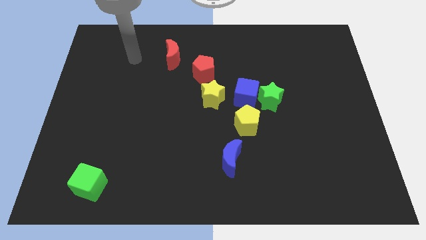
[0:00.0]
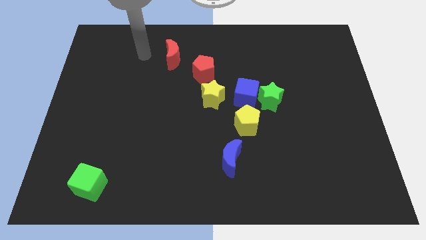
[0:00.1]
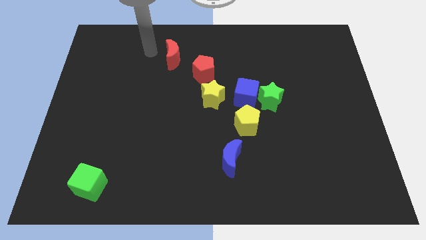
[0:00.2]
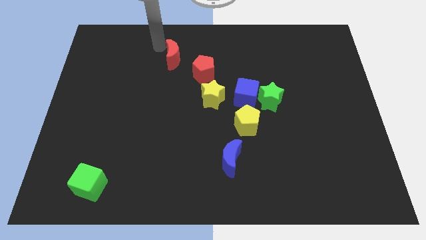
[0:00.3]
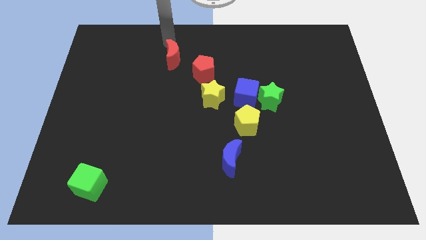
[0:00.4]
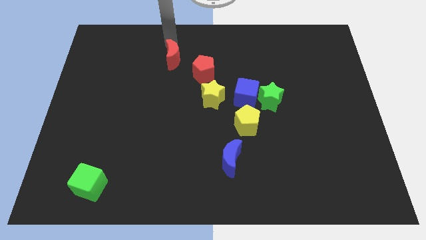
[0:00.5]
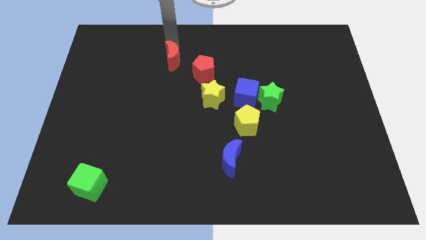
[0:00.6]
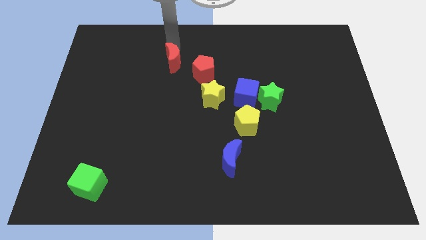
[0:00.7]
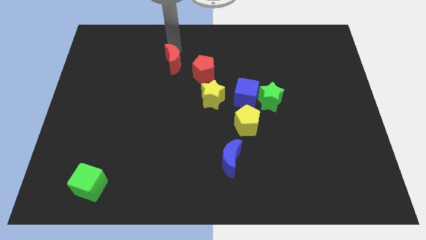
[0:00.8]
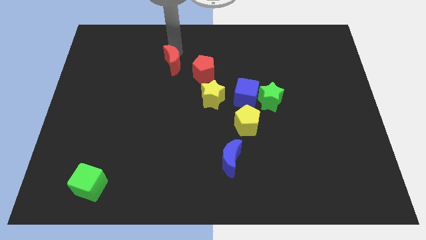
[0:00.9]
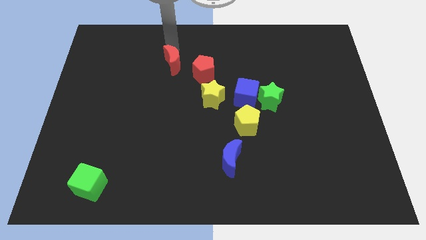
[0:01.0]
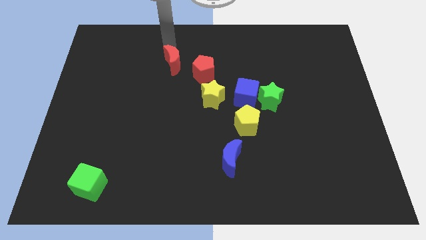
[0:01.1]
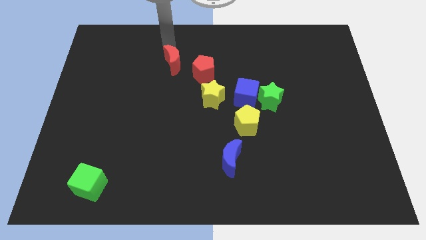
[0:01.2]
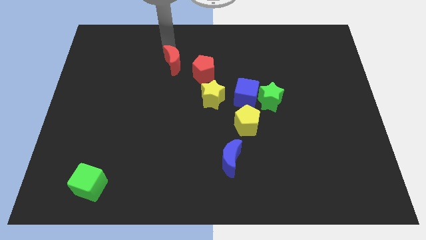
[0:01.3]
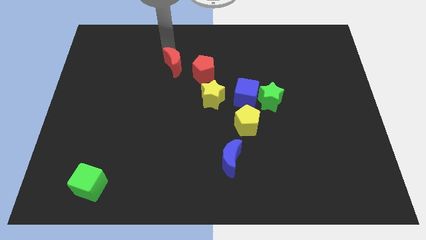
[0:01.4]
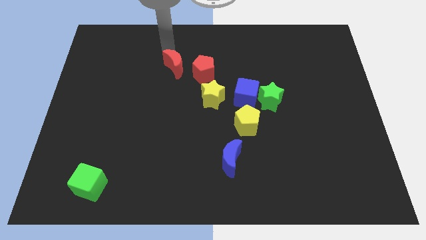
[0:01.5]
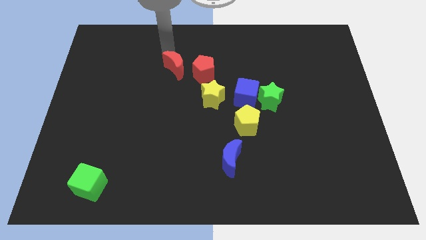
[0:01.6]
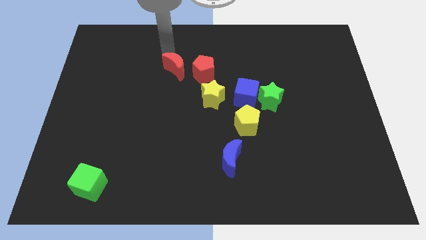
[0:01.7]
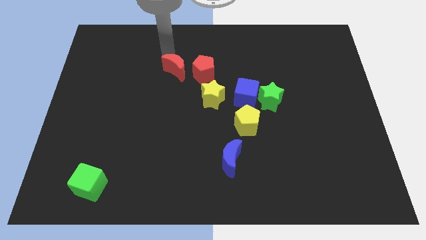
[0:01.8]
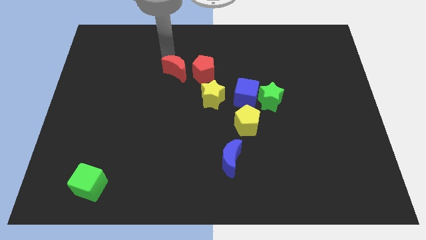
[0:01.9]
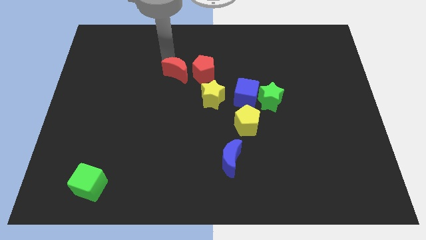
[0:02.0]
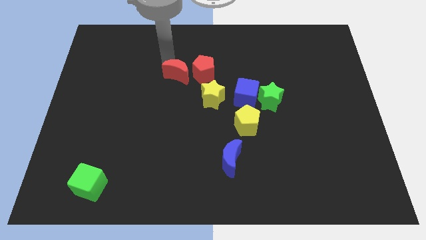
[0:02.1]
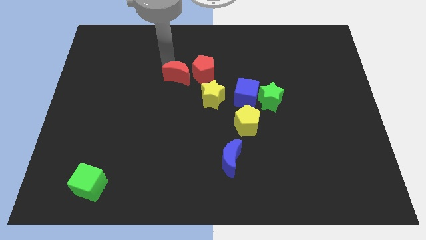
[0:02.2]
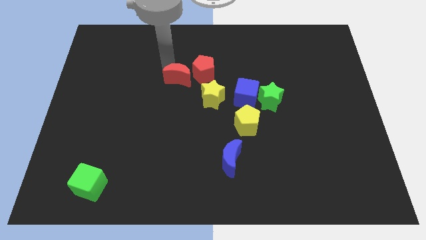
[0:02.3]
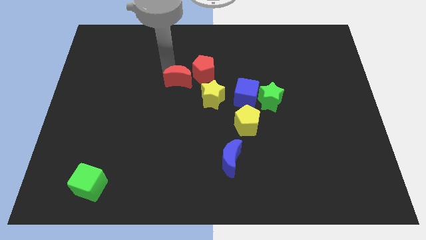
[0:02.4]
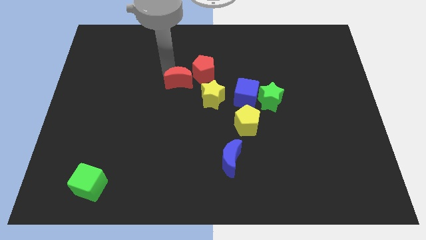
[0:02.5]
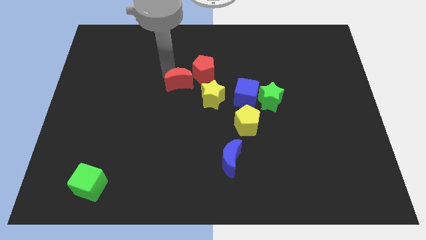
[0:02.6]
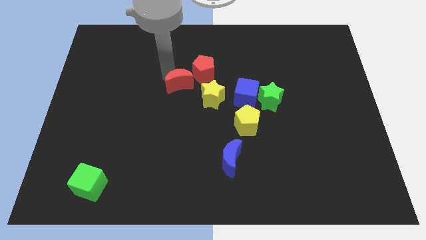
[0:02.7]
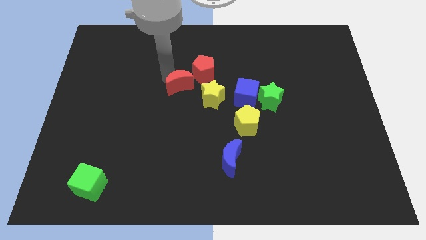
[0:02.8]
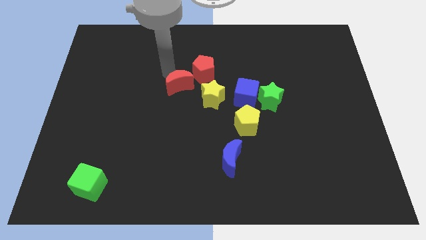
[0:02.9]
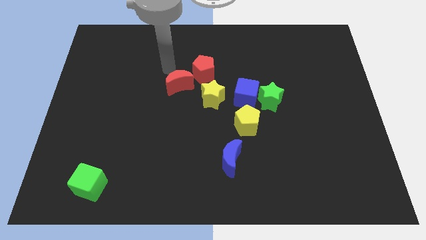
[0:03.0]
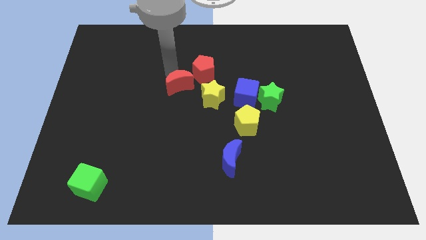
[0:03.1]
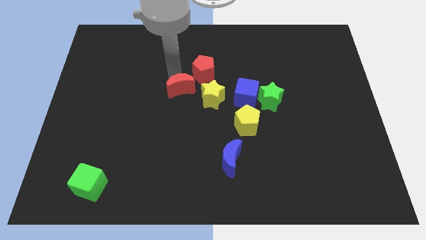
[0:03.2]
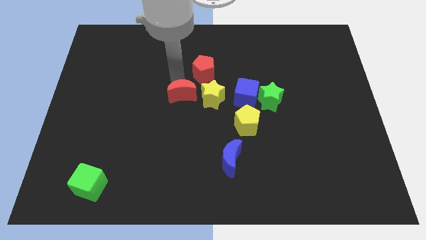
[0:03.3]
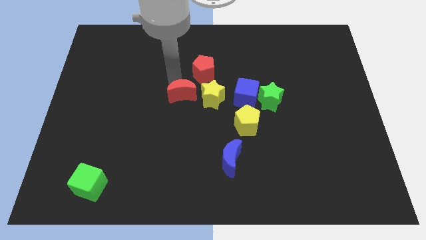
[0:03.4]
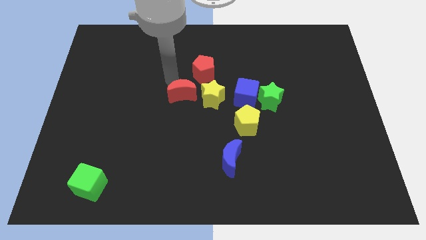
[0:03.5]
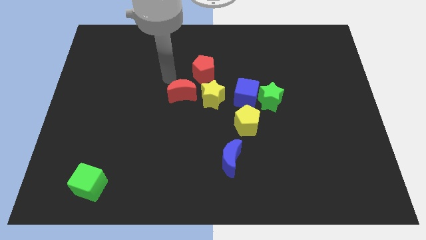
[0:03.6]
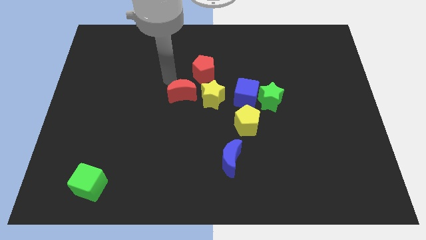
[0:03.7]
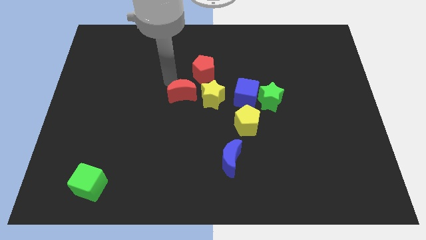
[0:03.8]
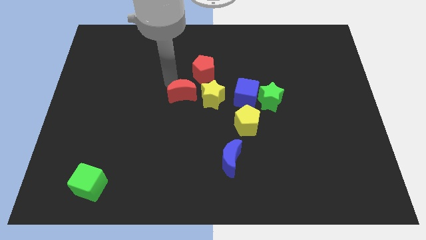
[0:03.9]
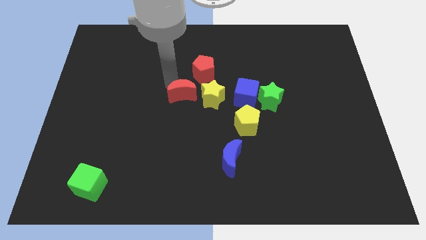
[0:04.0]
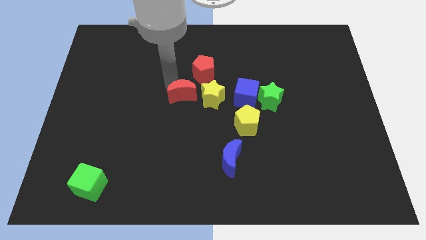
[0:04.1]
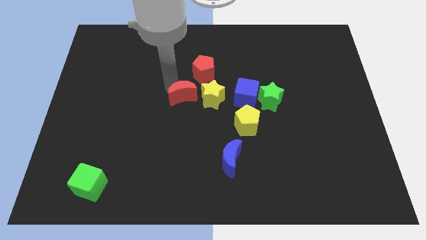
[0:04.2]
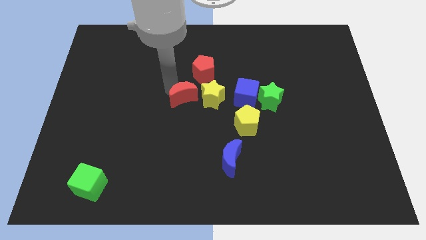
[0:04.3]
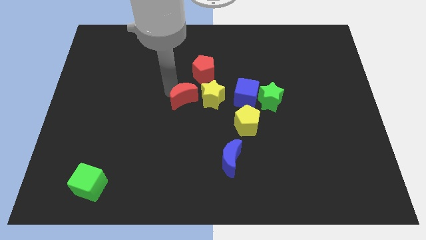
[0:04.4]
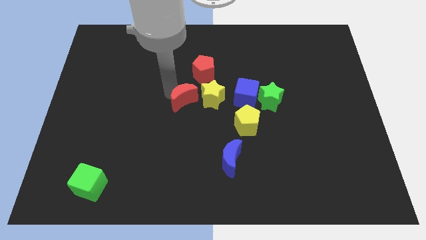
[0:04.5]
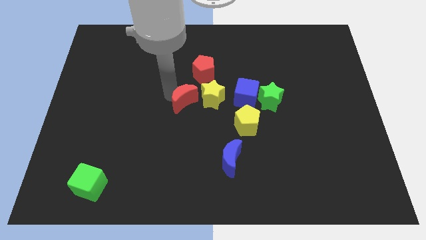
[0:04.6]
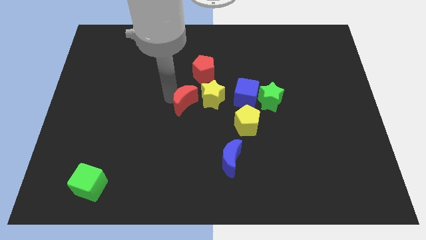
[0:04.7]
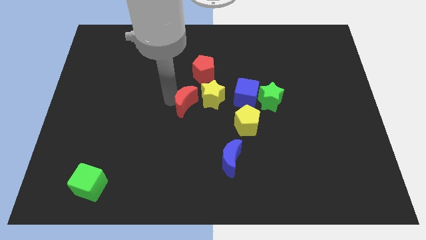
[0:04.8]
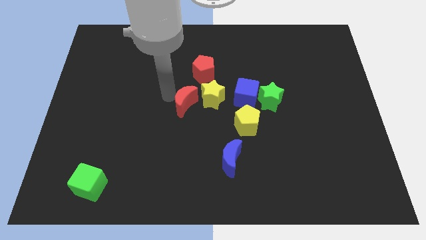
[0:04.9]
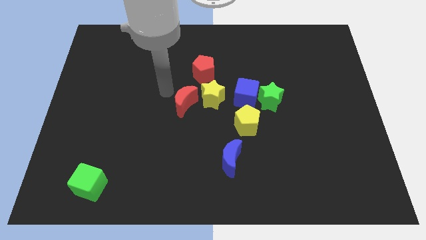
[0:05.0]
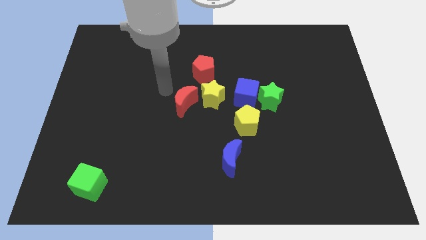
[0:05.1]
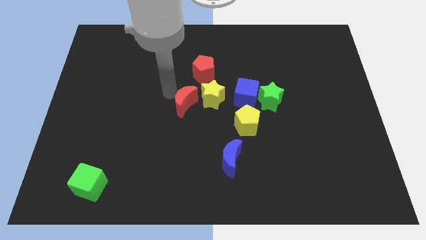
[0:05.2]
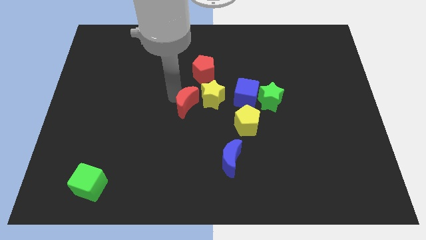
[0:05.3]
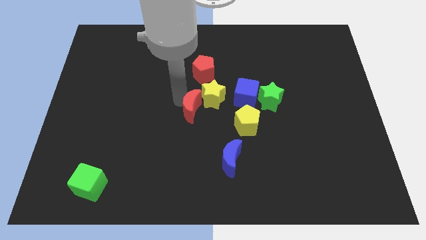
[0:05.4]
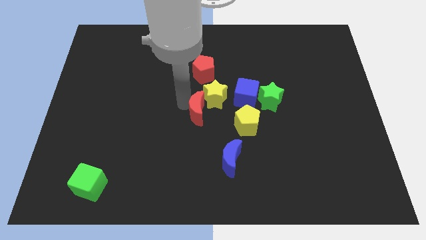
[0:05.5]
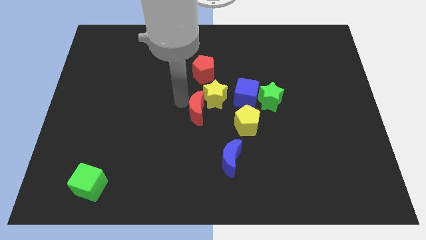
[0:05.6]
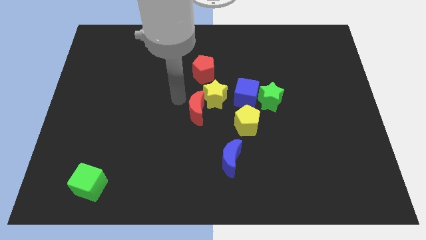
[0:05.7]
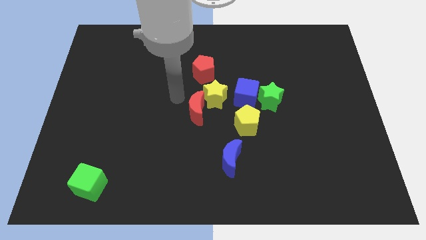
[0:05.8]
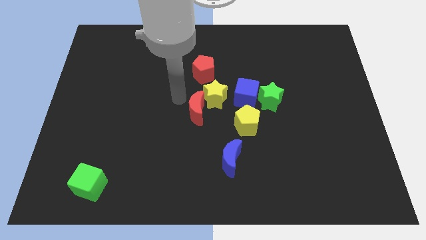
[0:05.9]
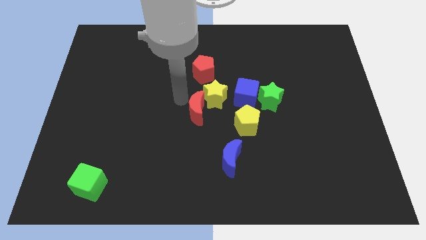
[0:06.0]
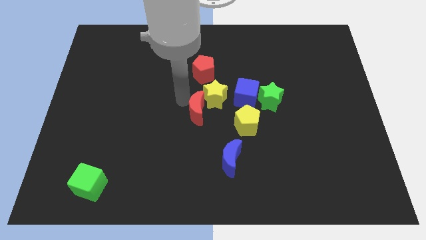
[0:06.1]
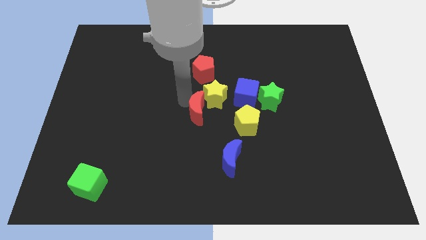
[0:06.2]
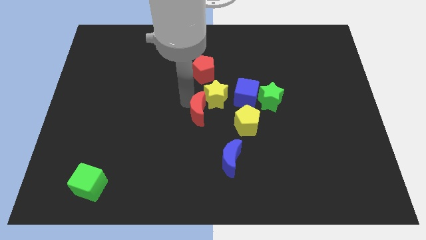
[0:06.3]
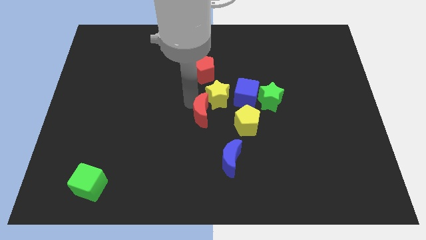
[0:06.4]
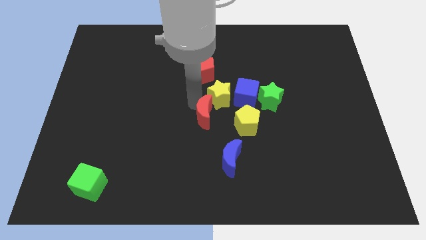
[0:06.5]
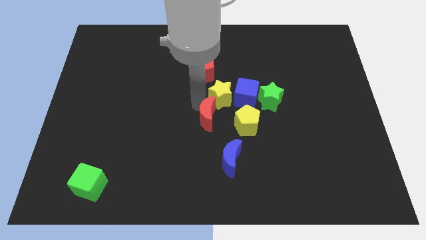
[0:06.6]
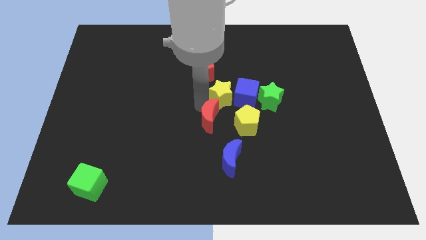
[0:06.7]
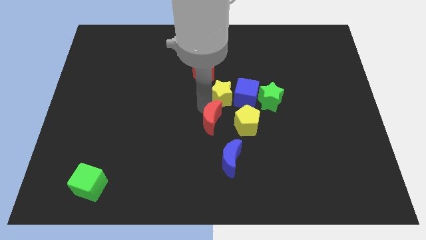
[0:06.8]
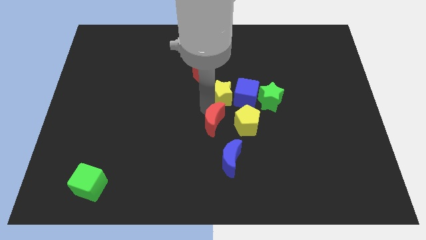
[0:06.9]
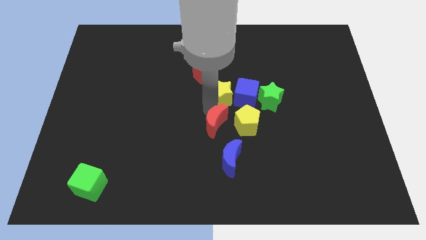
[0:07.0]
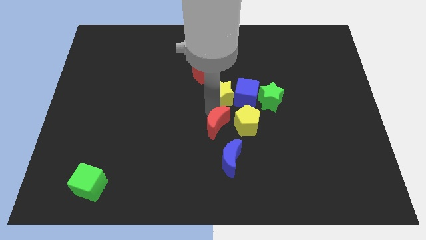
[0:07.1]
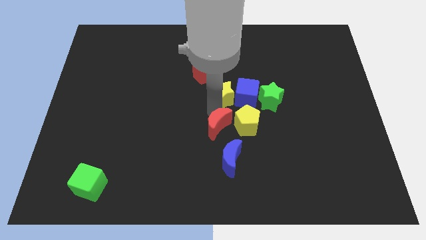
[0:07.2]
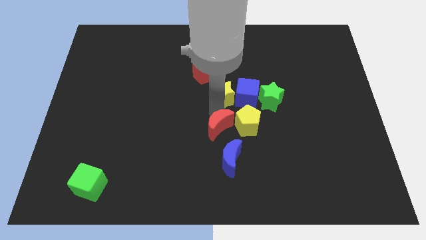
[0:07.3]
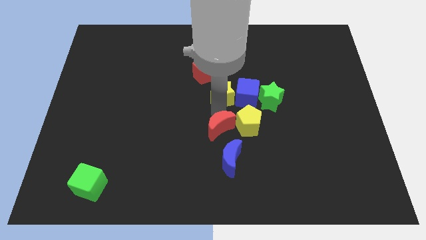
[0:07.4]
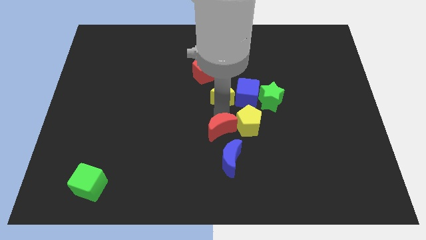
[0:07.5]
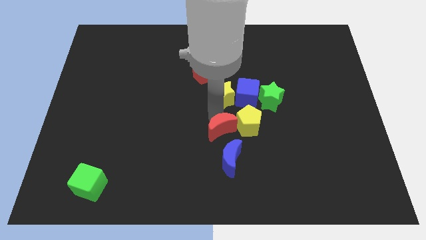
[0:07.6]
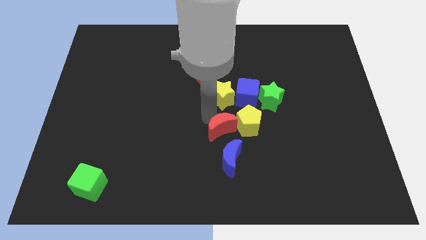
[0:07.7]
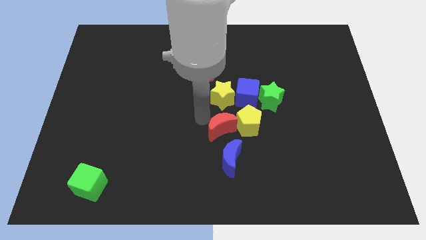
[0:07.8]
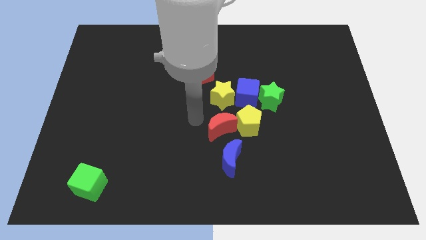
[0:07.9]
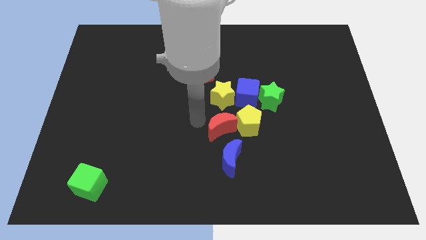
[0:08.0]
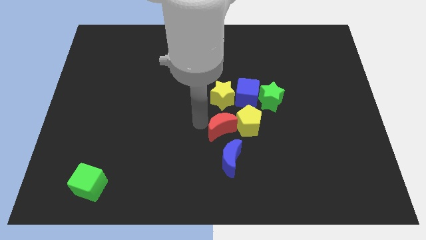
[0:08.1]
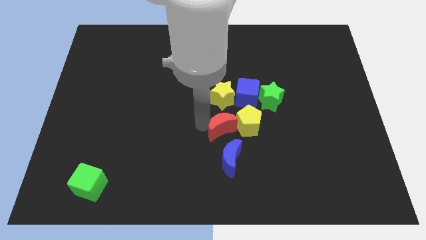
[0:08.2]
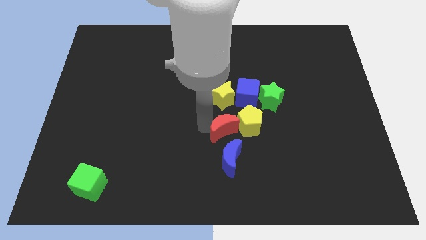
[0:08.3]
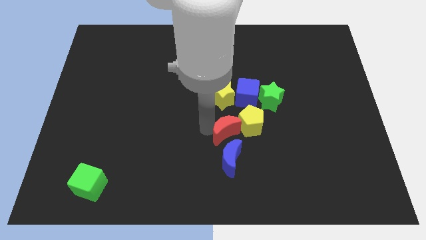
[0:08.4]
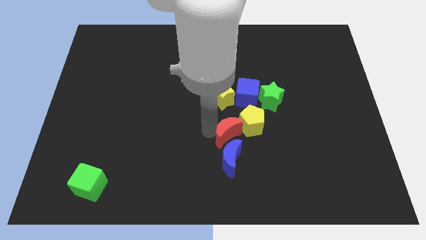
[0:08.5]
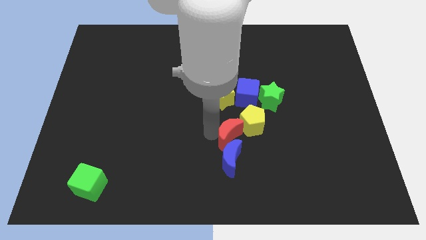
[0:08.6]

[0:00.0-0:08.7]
push the red moon diagonally up and to the right of the blue moon
